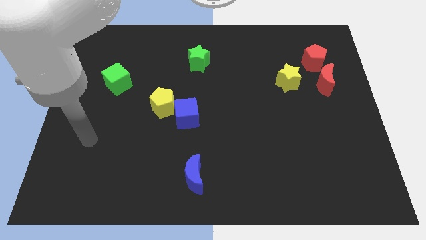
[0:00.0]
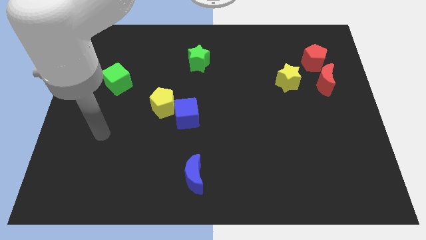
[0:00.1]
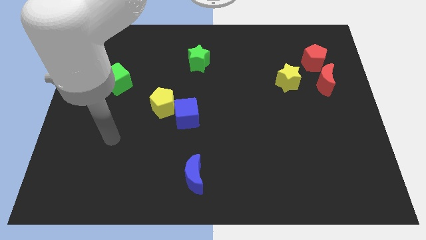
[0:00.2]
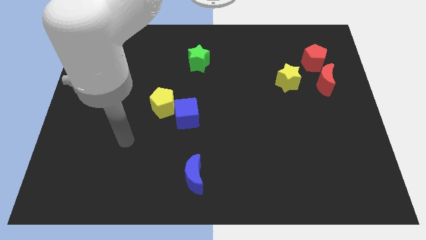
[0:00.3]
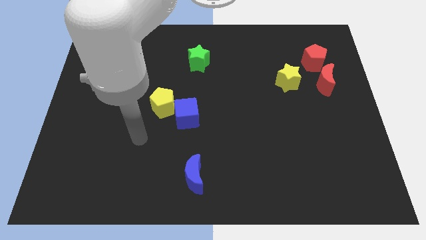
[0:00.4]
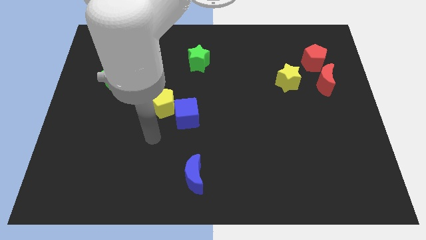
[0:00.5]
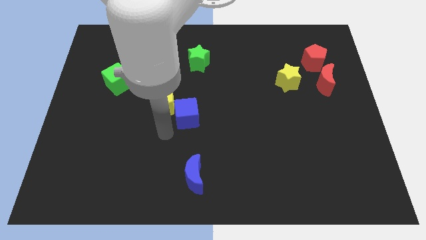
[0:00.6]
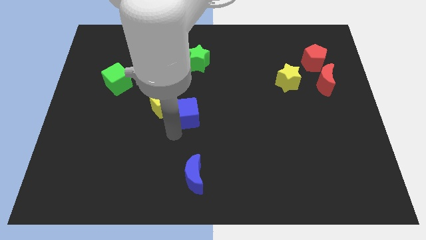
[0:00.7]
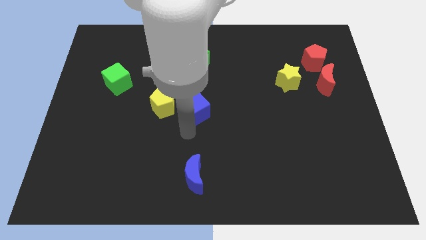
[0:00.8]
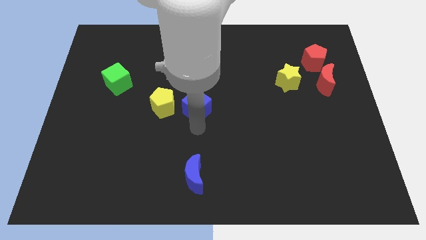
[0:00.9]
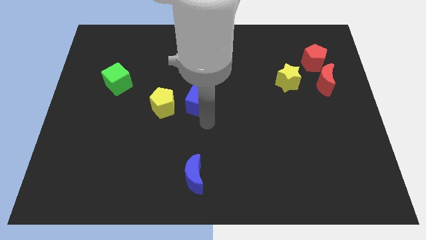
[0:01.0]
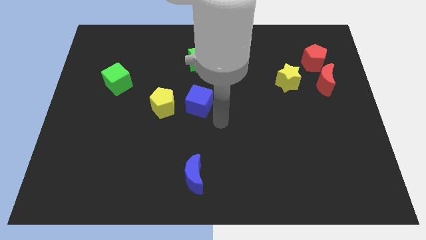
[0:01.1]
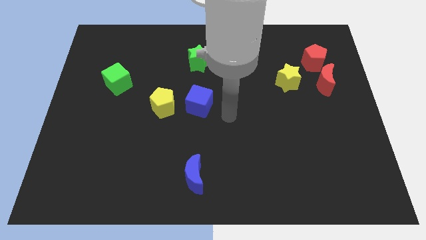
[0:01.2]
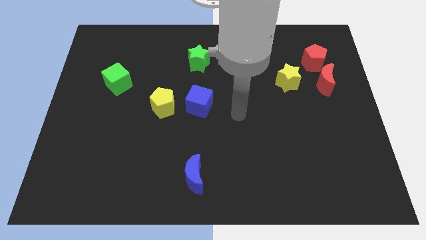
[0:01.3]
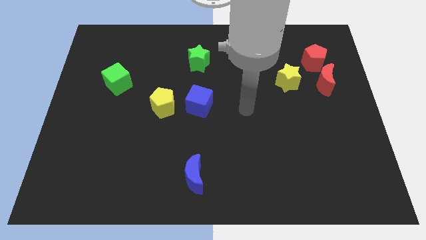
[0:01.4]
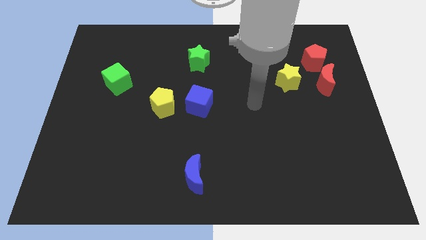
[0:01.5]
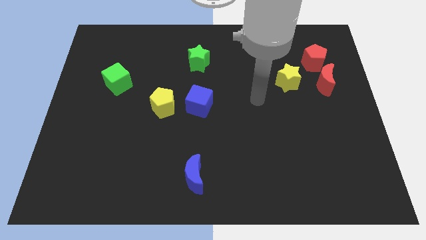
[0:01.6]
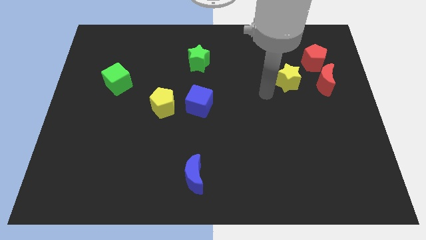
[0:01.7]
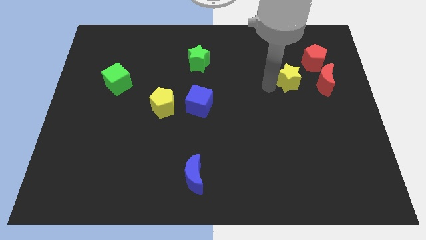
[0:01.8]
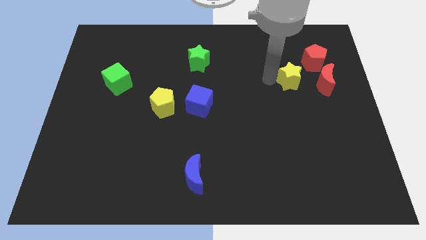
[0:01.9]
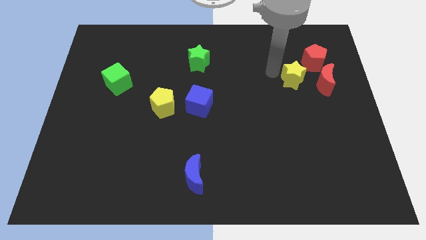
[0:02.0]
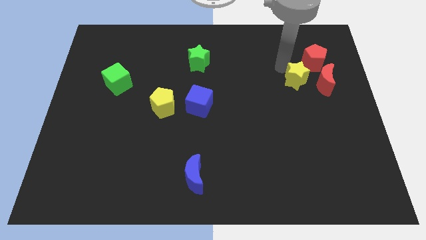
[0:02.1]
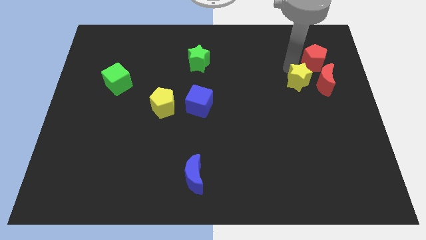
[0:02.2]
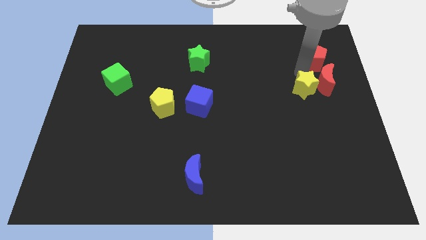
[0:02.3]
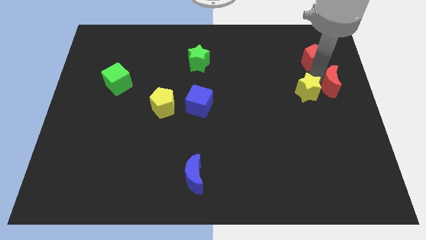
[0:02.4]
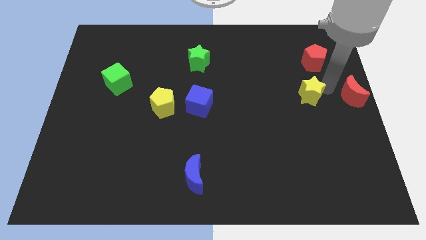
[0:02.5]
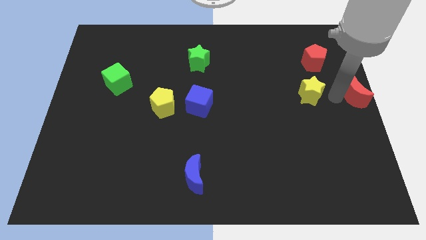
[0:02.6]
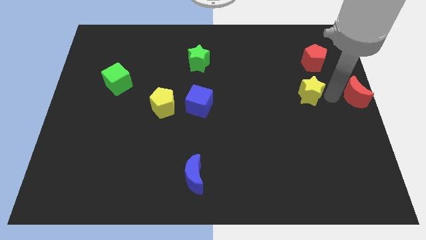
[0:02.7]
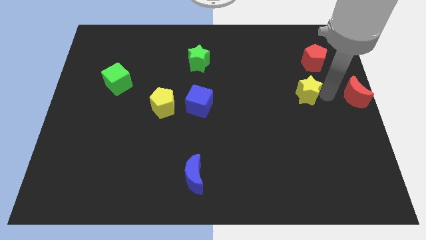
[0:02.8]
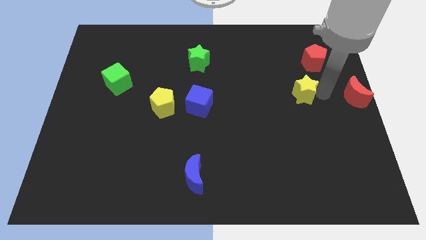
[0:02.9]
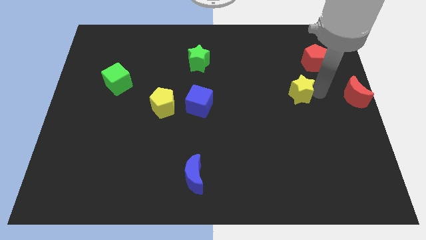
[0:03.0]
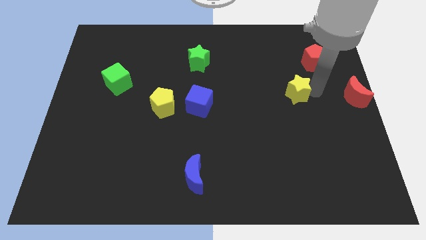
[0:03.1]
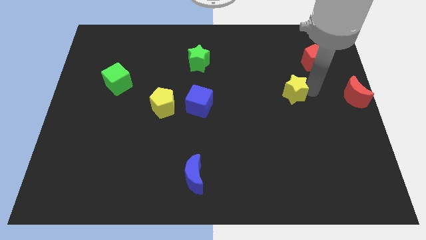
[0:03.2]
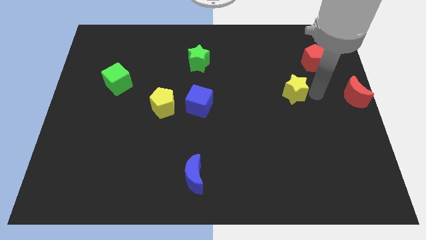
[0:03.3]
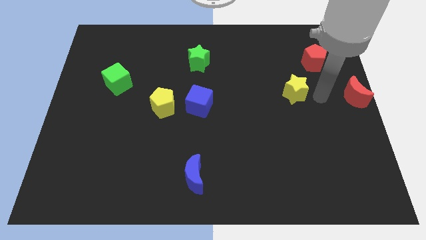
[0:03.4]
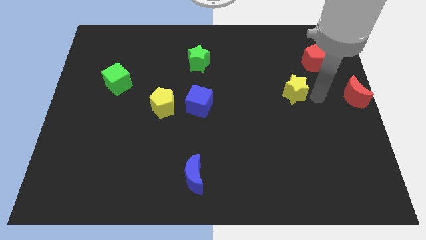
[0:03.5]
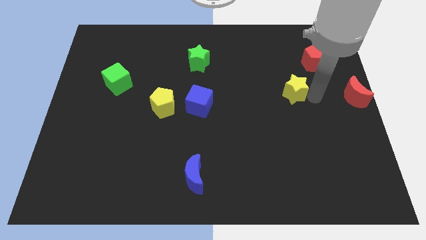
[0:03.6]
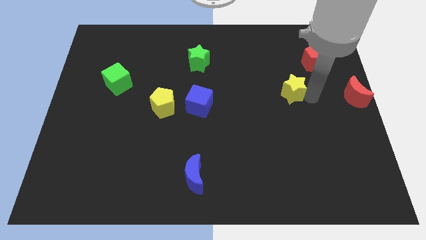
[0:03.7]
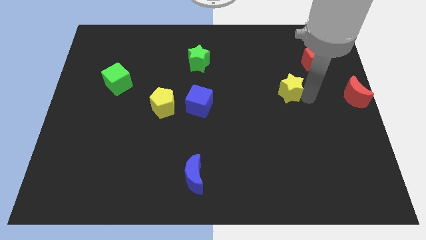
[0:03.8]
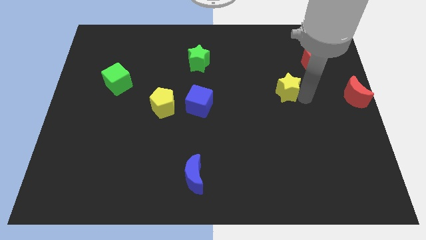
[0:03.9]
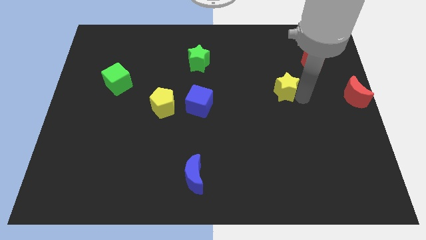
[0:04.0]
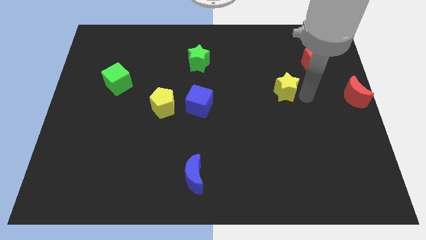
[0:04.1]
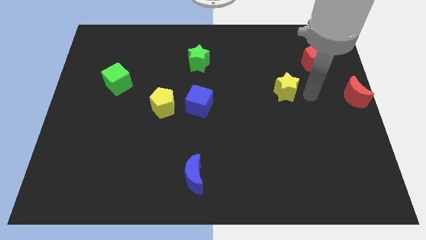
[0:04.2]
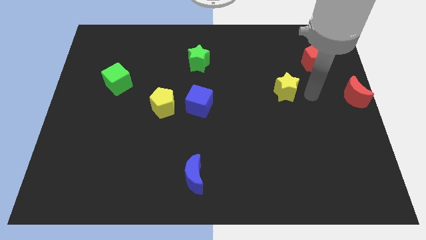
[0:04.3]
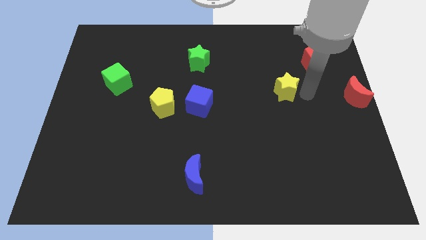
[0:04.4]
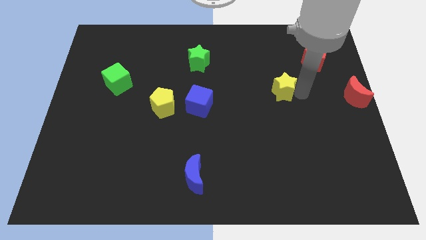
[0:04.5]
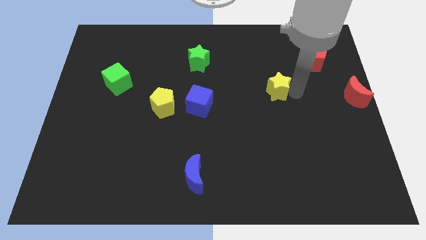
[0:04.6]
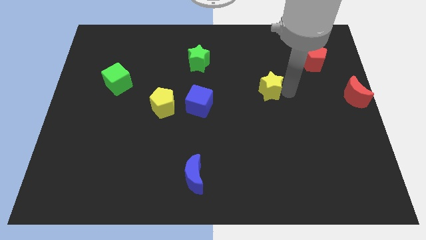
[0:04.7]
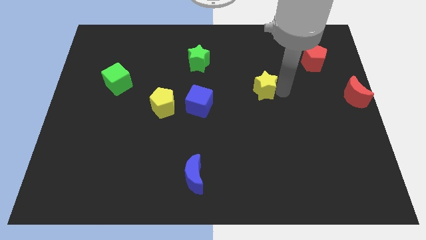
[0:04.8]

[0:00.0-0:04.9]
move the yellow star to the middle
